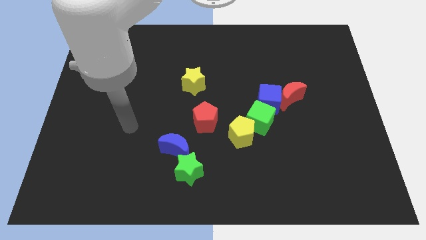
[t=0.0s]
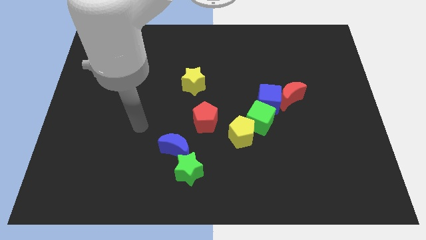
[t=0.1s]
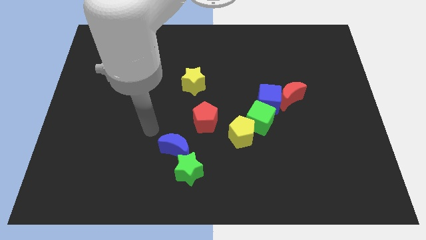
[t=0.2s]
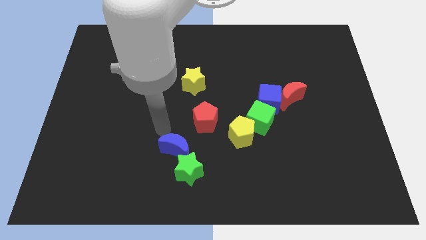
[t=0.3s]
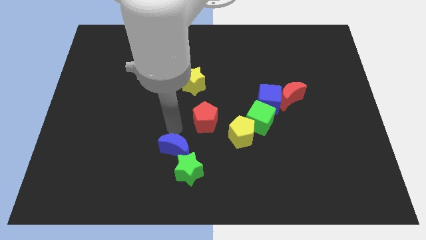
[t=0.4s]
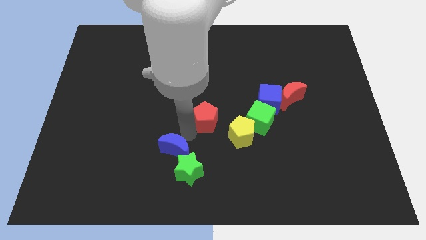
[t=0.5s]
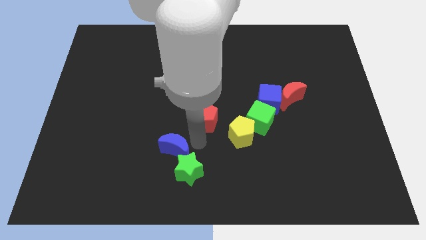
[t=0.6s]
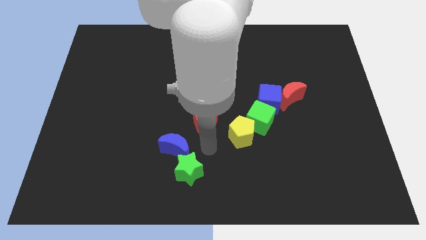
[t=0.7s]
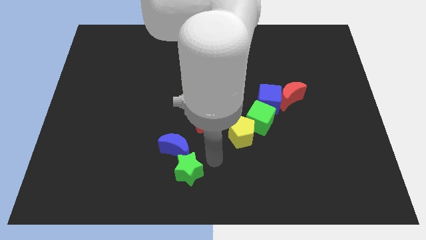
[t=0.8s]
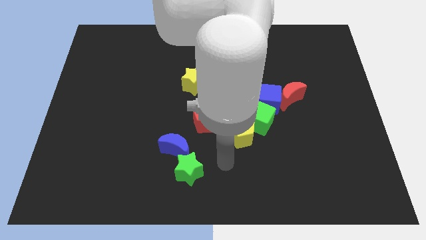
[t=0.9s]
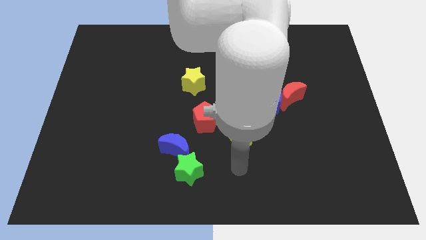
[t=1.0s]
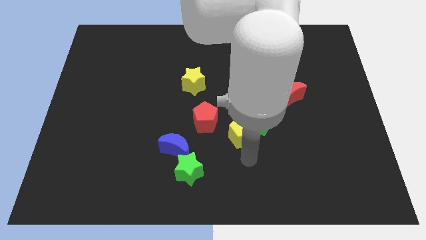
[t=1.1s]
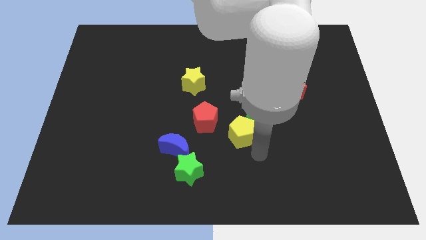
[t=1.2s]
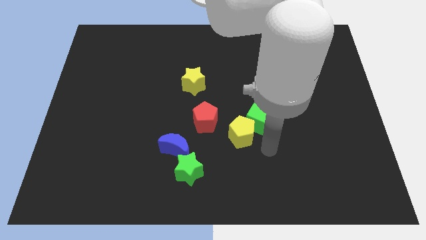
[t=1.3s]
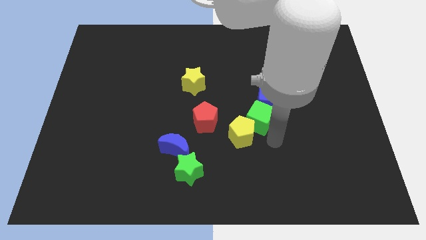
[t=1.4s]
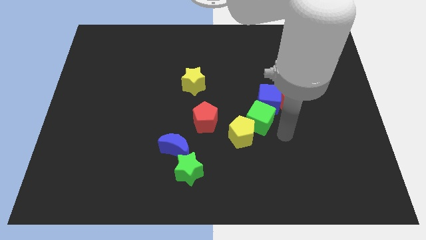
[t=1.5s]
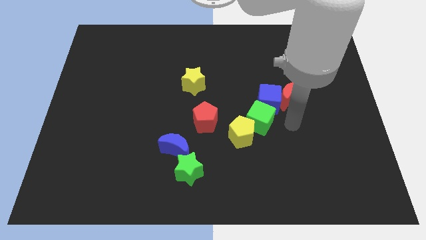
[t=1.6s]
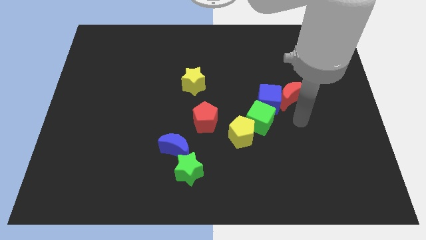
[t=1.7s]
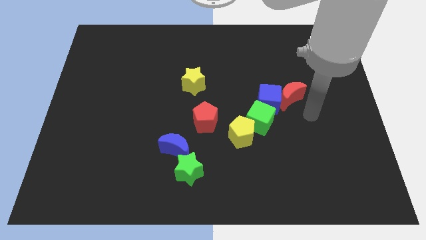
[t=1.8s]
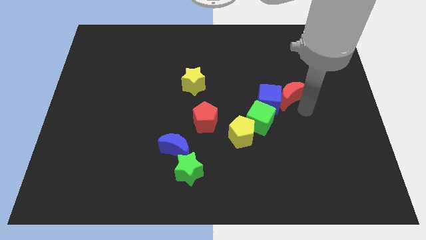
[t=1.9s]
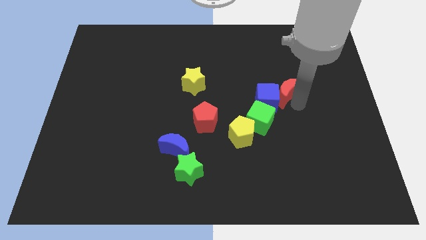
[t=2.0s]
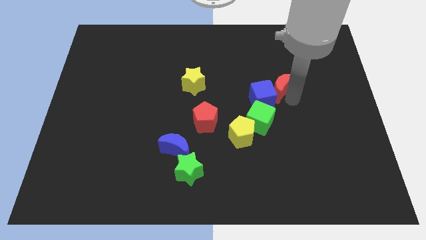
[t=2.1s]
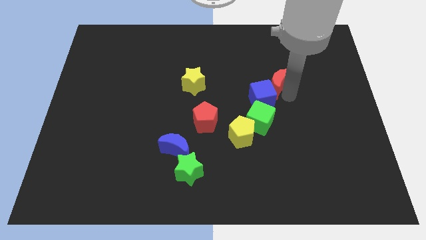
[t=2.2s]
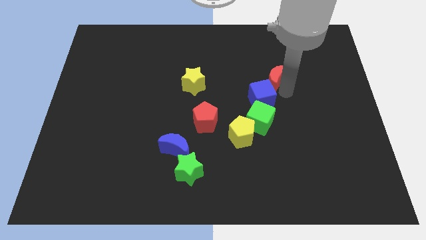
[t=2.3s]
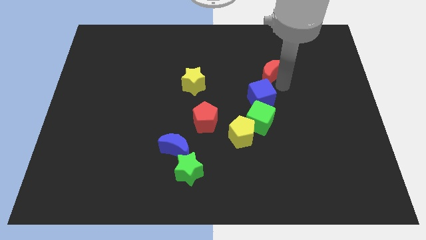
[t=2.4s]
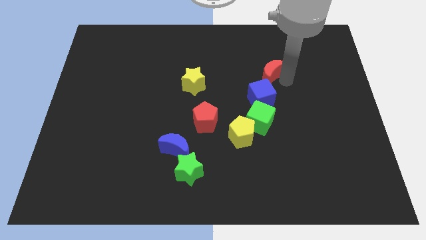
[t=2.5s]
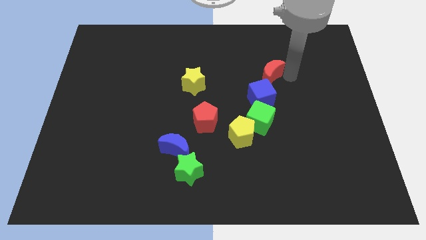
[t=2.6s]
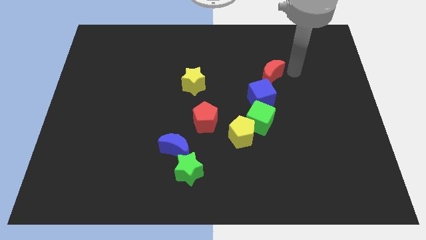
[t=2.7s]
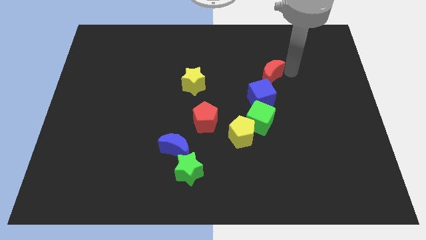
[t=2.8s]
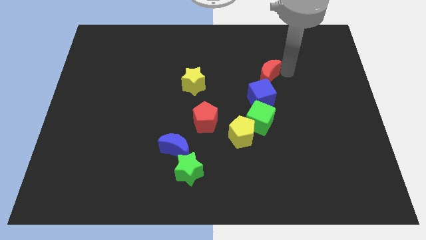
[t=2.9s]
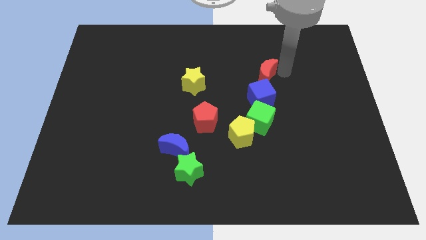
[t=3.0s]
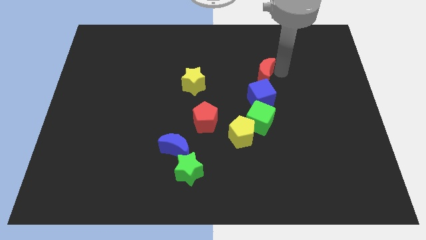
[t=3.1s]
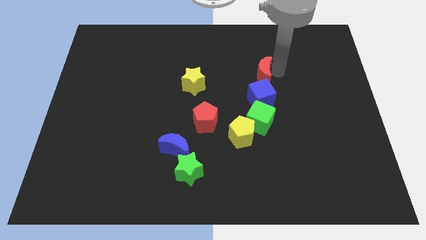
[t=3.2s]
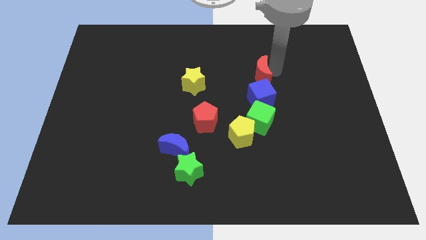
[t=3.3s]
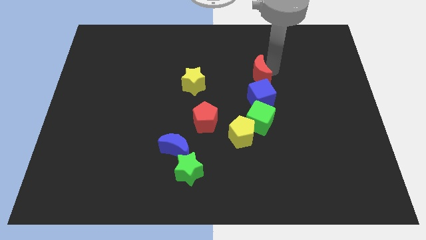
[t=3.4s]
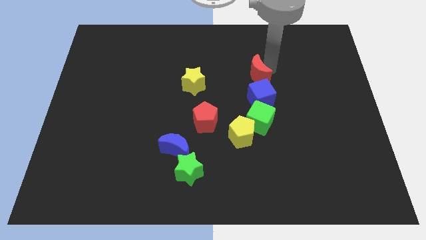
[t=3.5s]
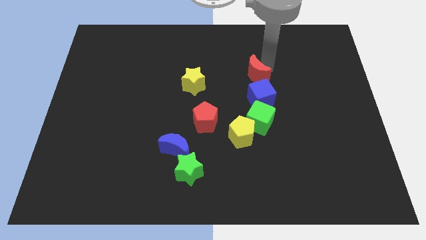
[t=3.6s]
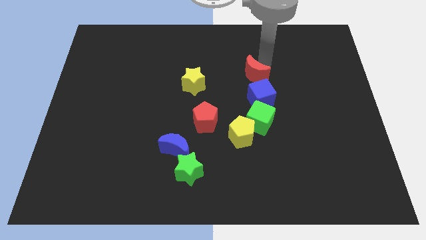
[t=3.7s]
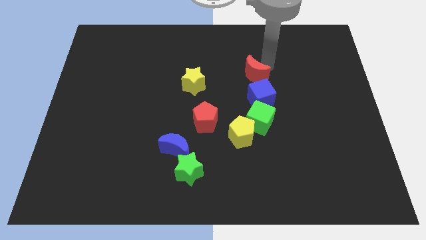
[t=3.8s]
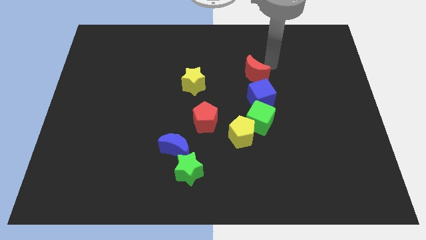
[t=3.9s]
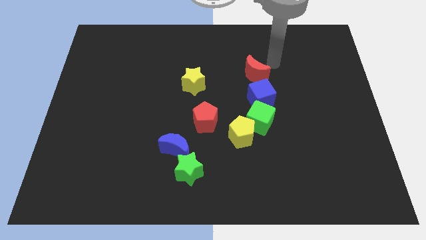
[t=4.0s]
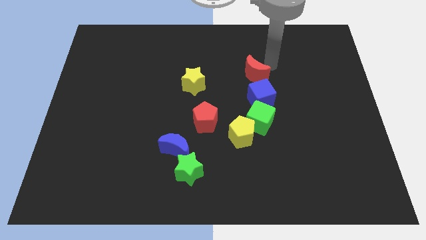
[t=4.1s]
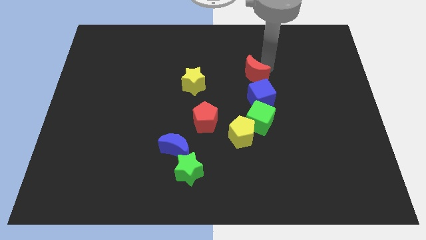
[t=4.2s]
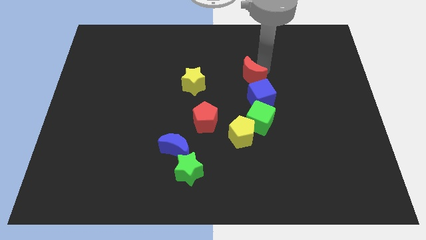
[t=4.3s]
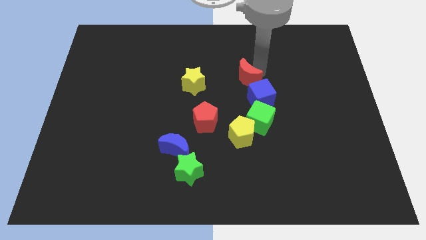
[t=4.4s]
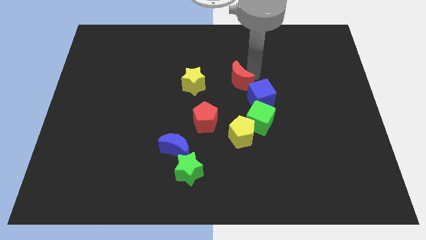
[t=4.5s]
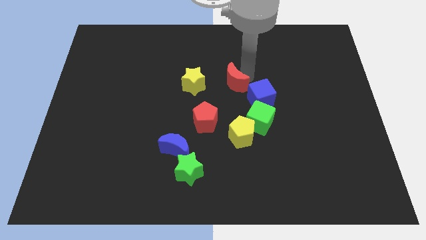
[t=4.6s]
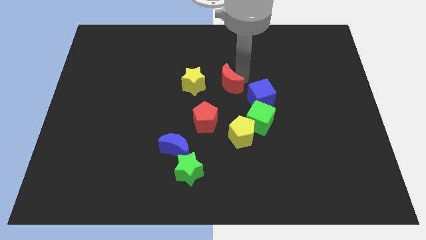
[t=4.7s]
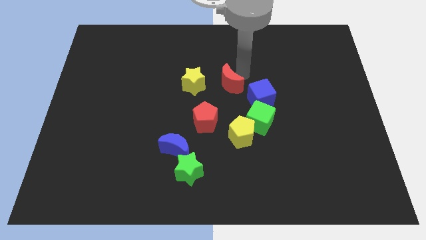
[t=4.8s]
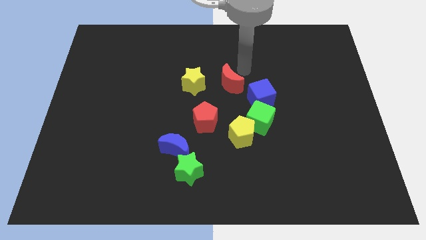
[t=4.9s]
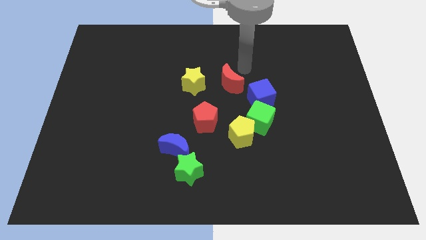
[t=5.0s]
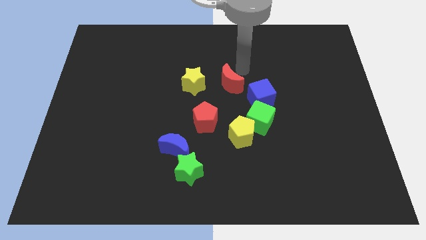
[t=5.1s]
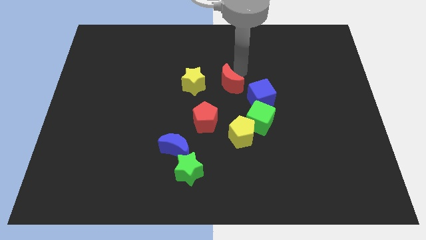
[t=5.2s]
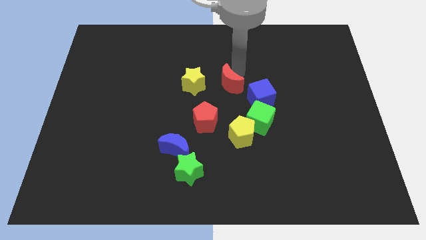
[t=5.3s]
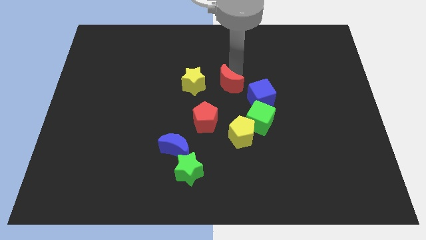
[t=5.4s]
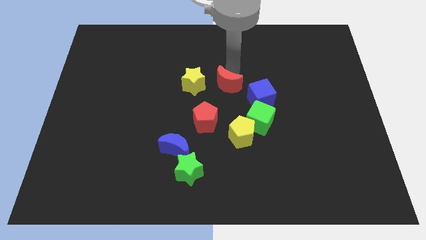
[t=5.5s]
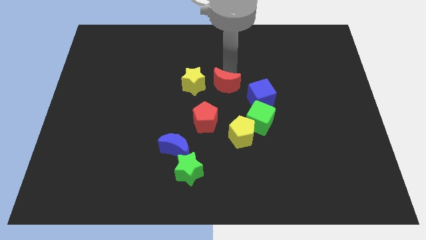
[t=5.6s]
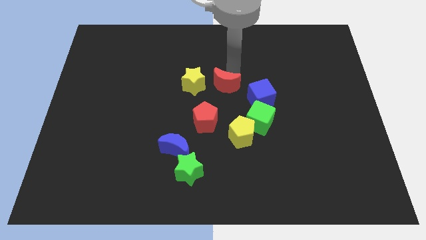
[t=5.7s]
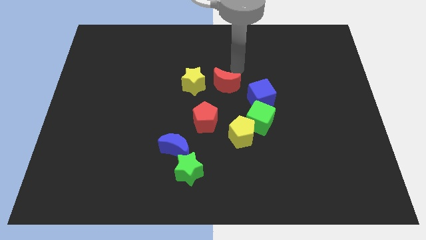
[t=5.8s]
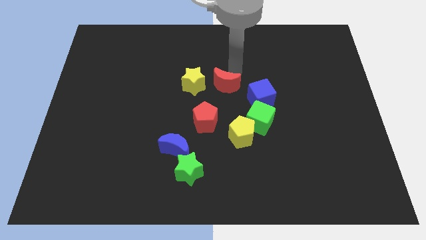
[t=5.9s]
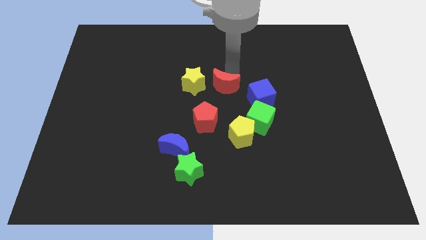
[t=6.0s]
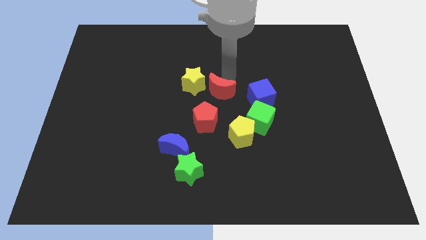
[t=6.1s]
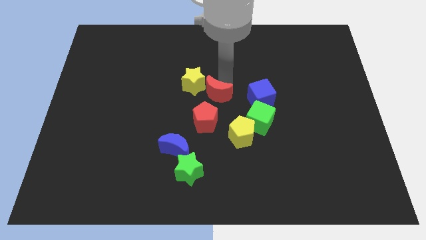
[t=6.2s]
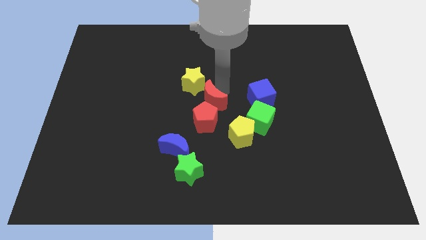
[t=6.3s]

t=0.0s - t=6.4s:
put the red moon to the bottom of the yellow star

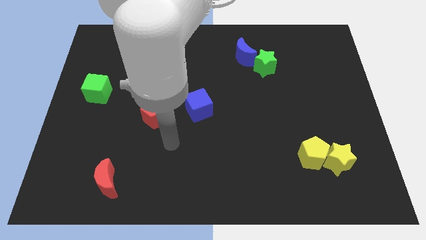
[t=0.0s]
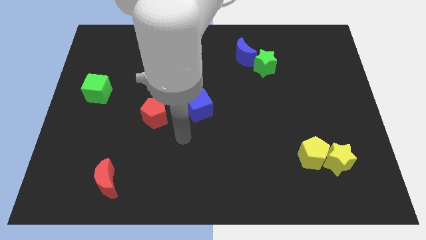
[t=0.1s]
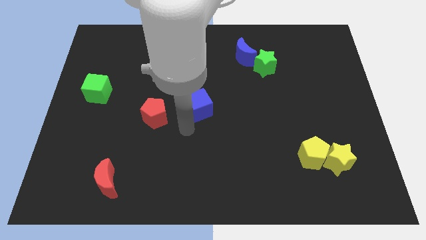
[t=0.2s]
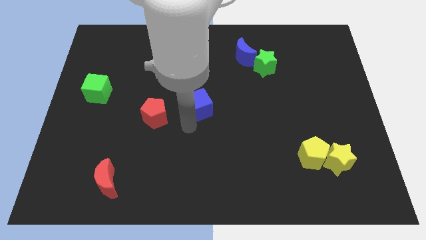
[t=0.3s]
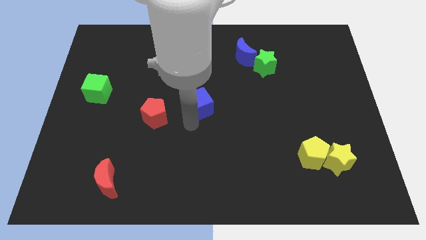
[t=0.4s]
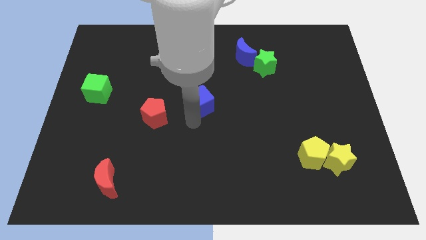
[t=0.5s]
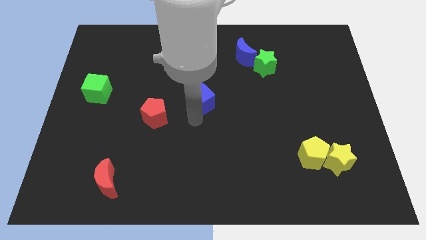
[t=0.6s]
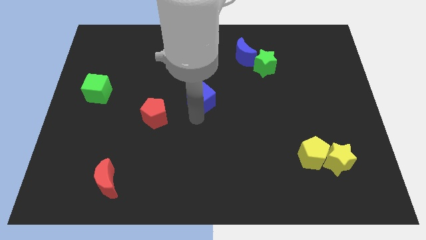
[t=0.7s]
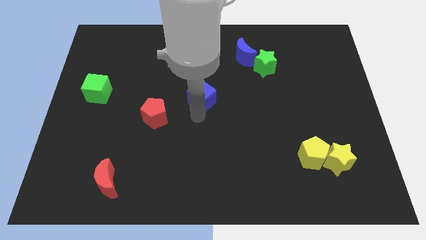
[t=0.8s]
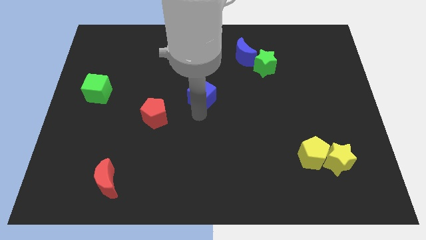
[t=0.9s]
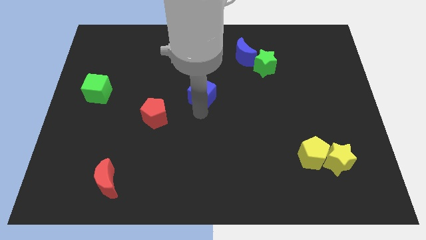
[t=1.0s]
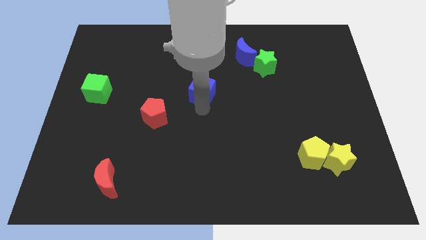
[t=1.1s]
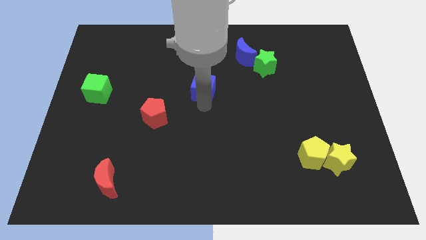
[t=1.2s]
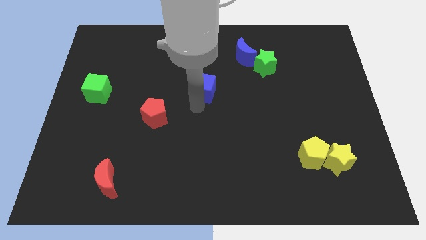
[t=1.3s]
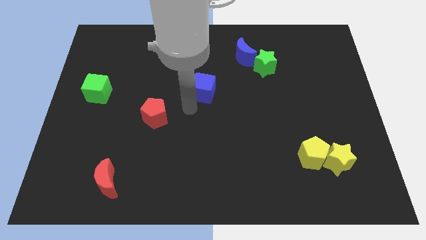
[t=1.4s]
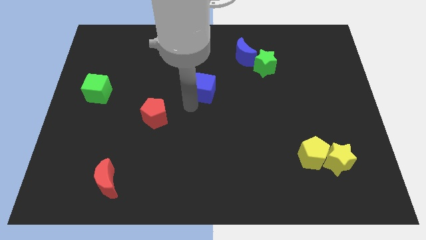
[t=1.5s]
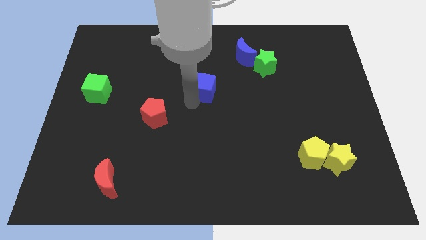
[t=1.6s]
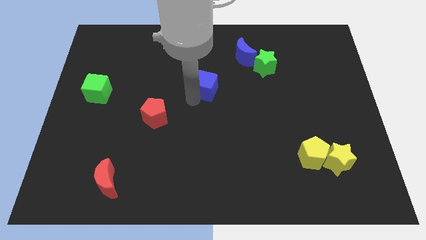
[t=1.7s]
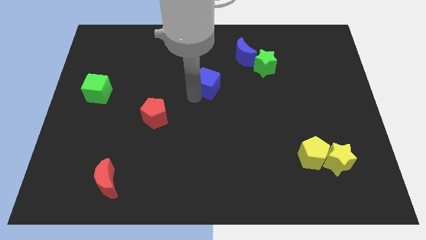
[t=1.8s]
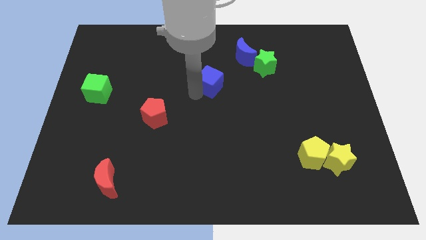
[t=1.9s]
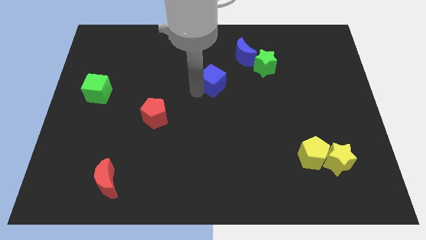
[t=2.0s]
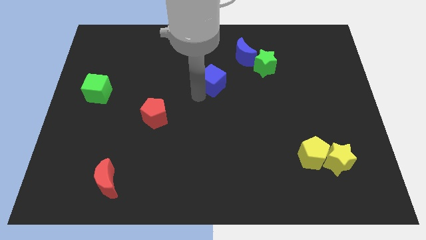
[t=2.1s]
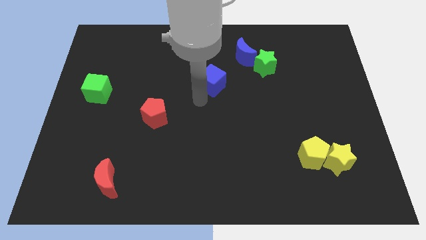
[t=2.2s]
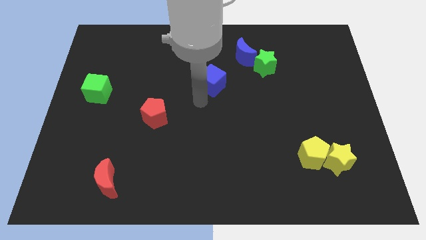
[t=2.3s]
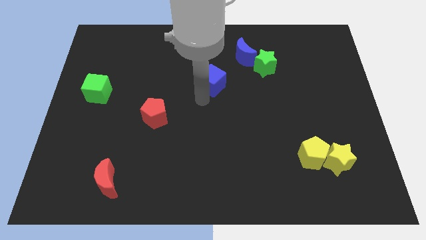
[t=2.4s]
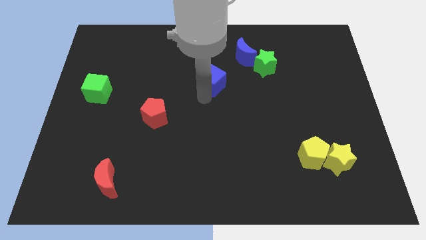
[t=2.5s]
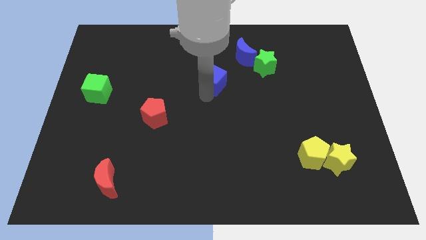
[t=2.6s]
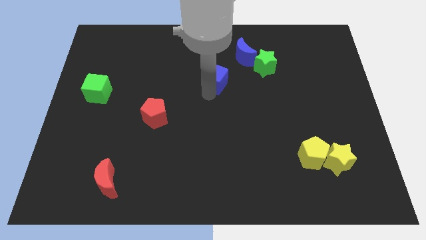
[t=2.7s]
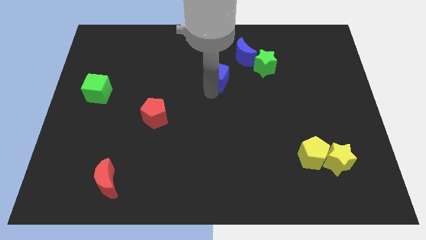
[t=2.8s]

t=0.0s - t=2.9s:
push the blue cube to the left side of the green star
